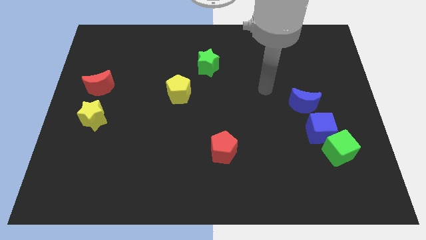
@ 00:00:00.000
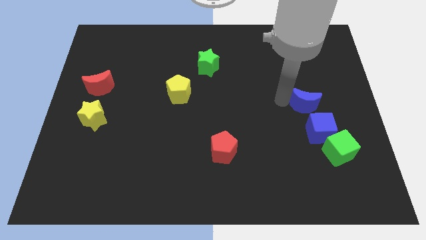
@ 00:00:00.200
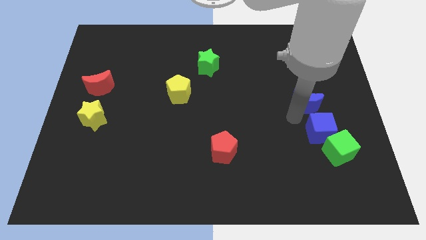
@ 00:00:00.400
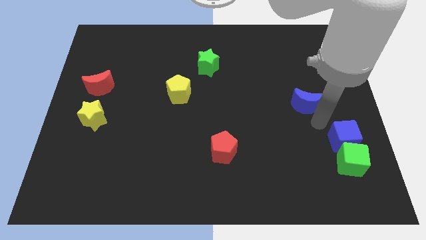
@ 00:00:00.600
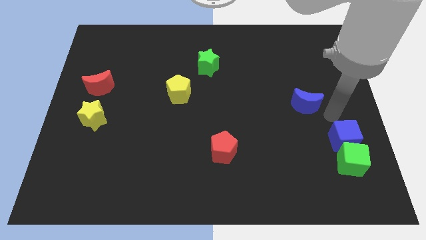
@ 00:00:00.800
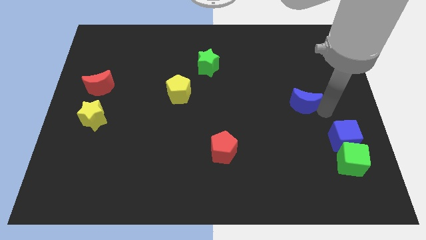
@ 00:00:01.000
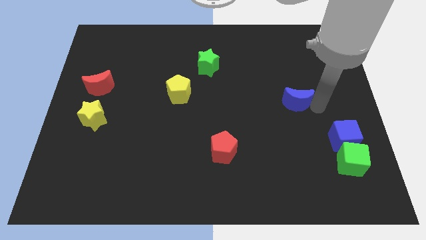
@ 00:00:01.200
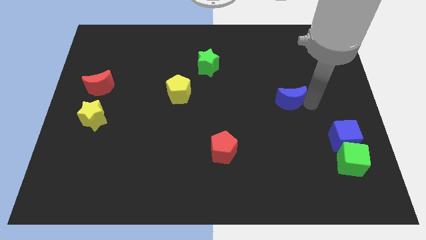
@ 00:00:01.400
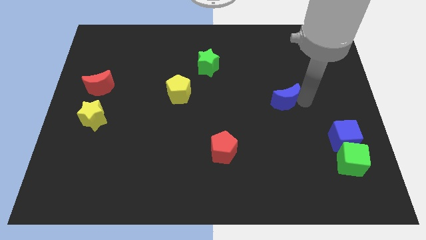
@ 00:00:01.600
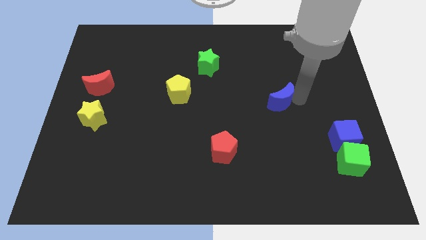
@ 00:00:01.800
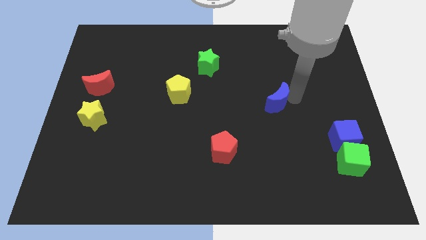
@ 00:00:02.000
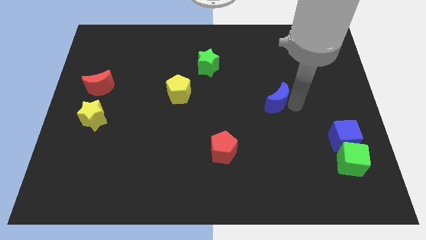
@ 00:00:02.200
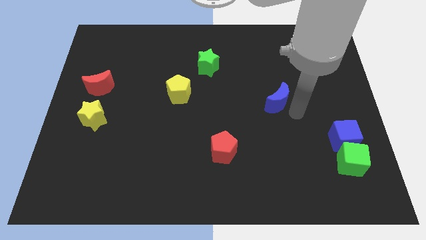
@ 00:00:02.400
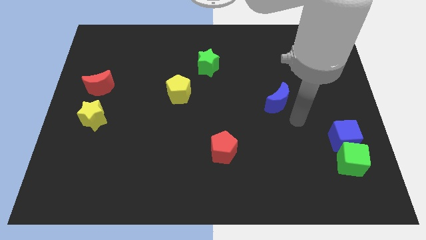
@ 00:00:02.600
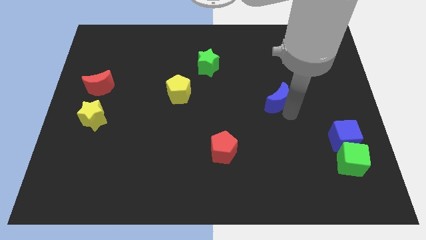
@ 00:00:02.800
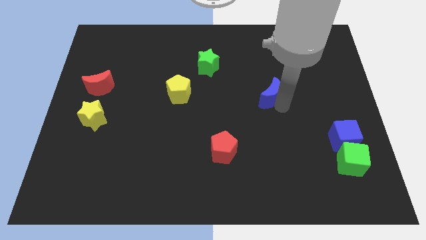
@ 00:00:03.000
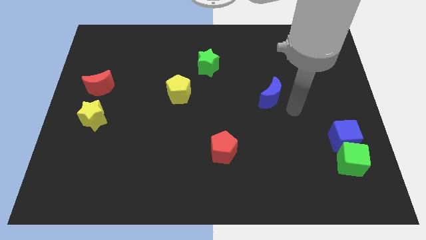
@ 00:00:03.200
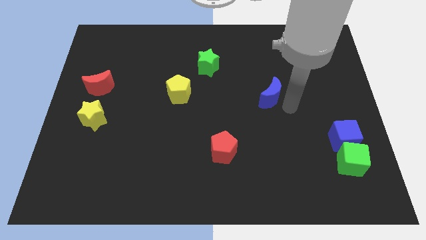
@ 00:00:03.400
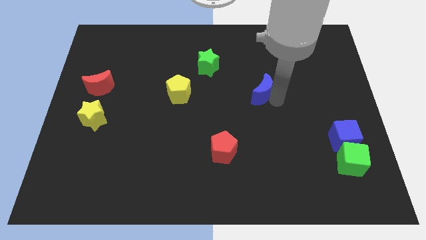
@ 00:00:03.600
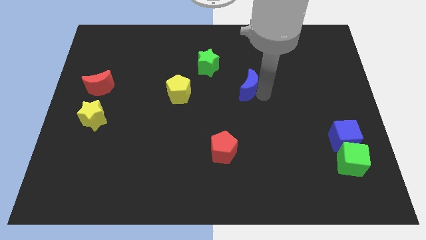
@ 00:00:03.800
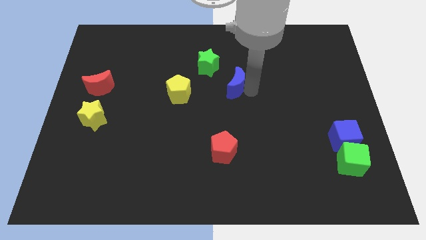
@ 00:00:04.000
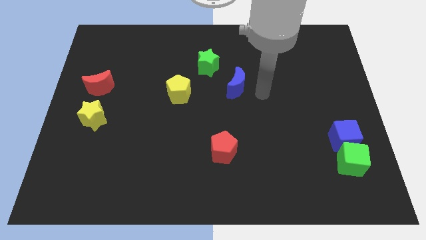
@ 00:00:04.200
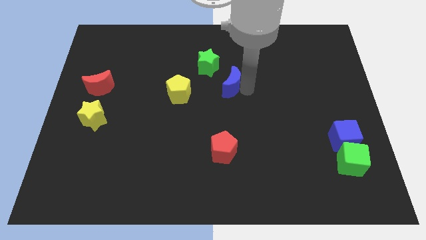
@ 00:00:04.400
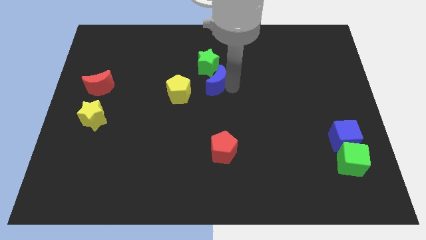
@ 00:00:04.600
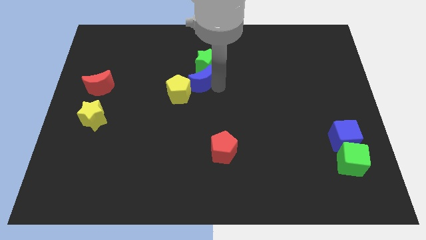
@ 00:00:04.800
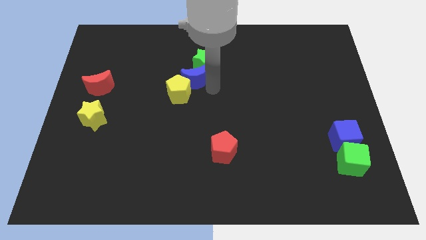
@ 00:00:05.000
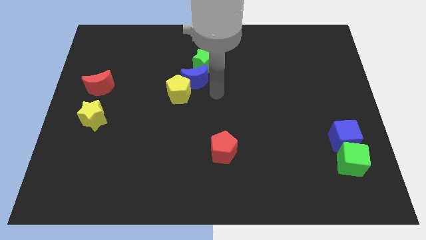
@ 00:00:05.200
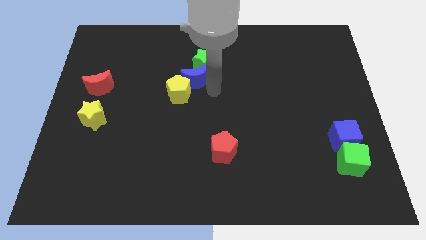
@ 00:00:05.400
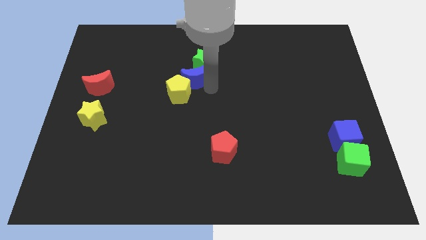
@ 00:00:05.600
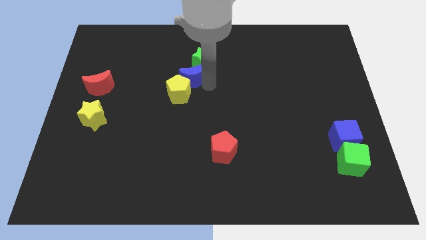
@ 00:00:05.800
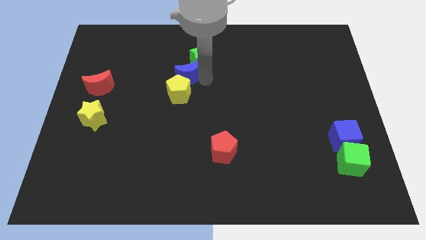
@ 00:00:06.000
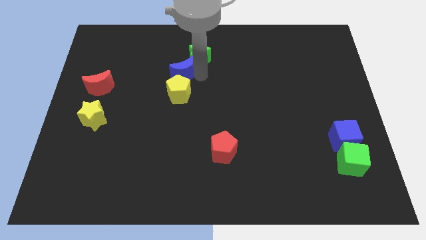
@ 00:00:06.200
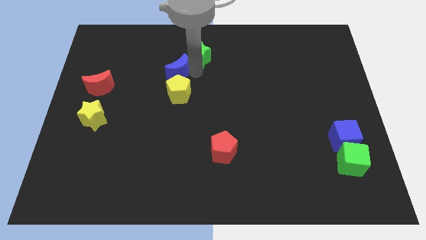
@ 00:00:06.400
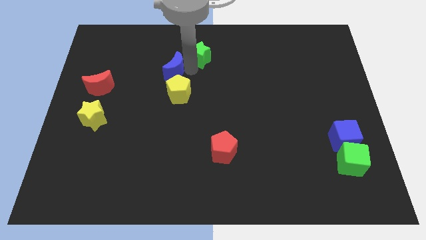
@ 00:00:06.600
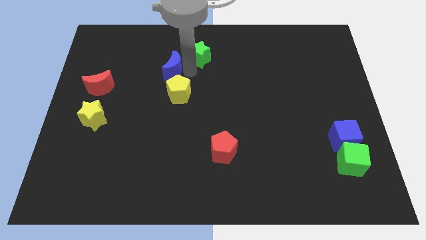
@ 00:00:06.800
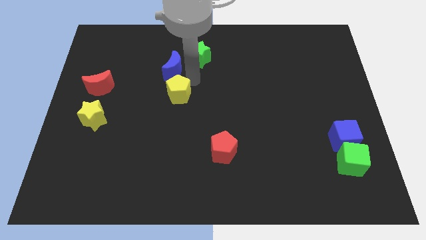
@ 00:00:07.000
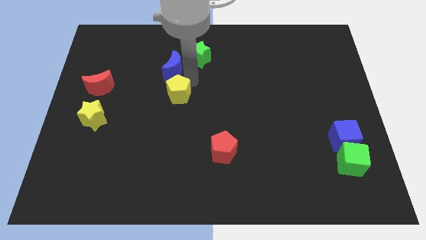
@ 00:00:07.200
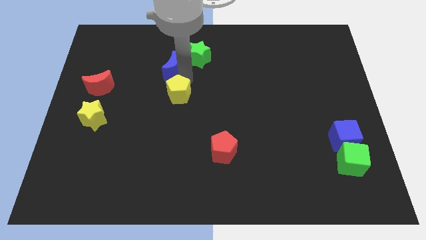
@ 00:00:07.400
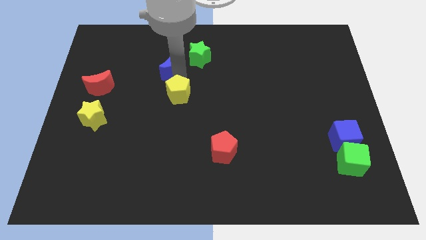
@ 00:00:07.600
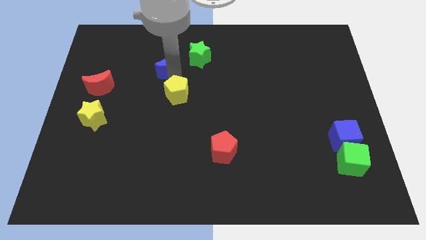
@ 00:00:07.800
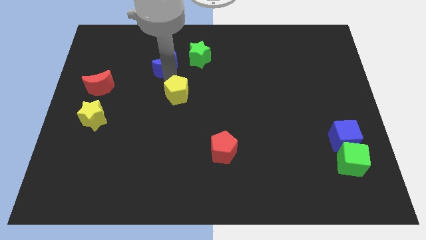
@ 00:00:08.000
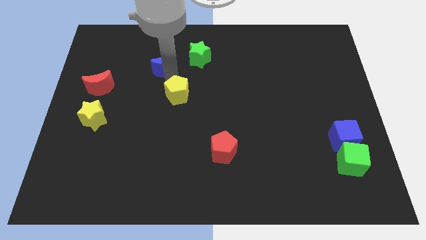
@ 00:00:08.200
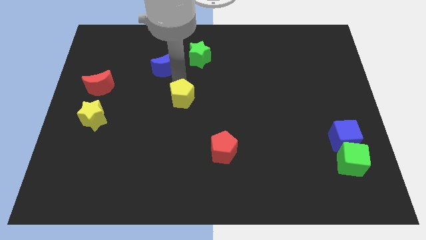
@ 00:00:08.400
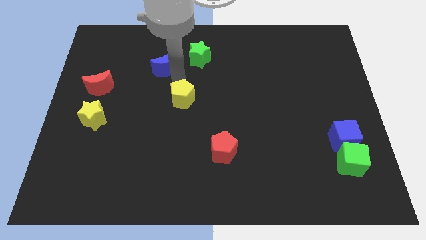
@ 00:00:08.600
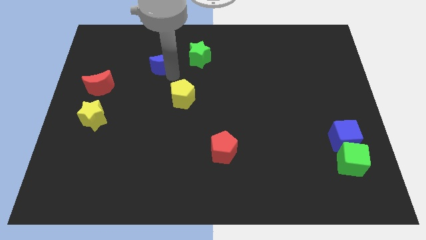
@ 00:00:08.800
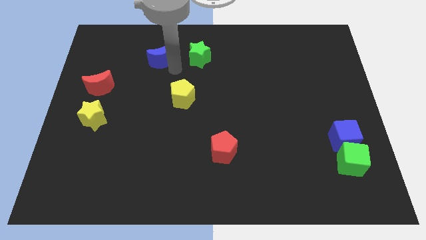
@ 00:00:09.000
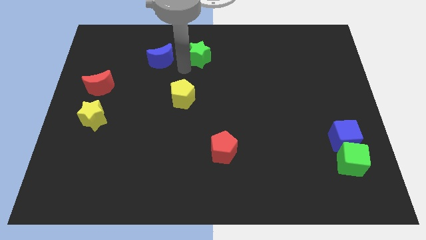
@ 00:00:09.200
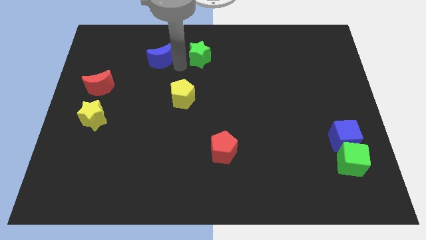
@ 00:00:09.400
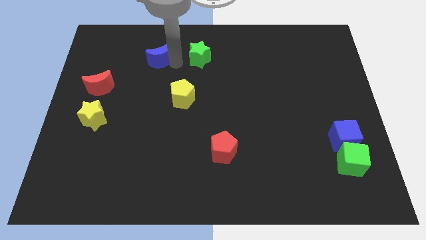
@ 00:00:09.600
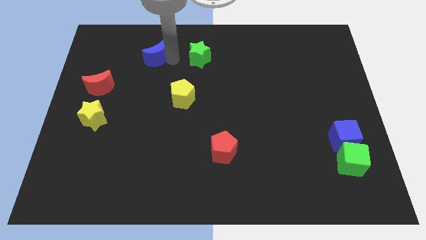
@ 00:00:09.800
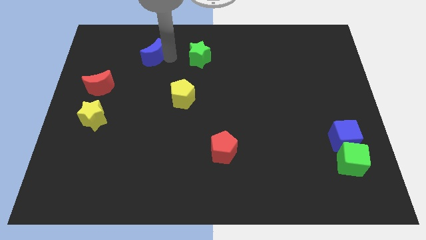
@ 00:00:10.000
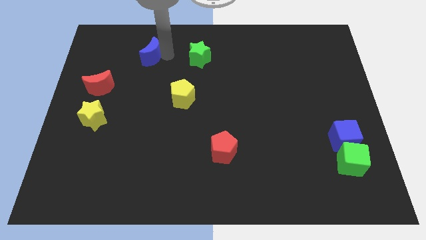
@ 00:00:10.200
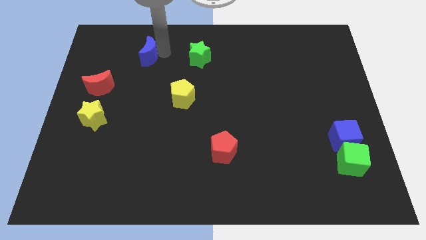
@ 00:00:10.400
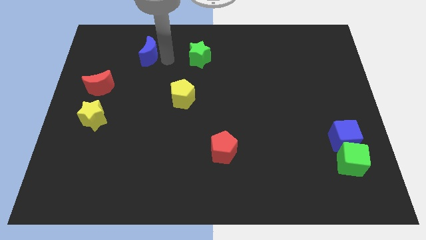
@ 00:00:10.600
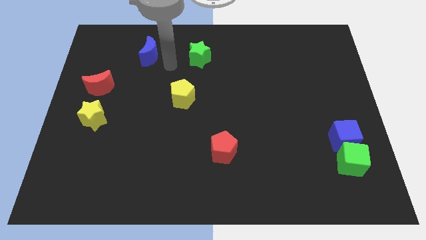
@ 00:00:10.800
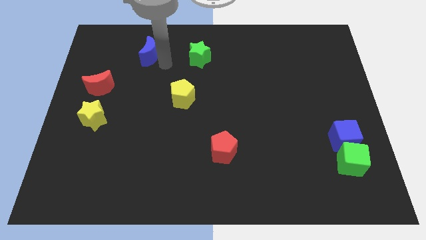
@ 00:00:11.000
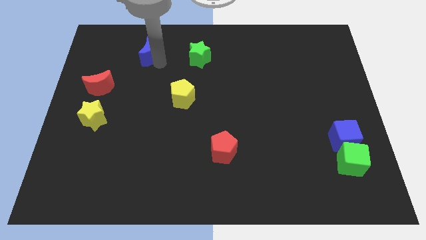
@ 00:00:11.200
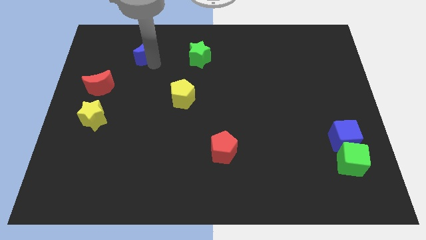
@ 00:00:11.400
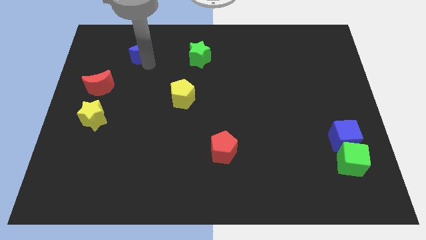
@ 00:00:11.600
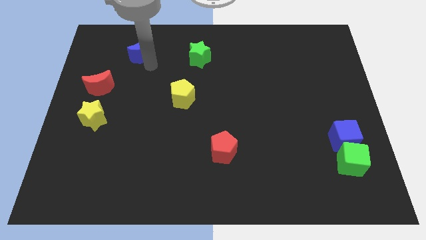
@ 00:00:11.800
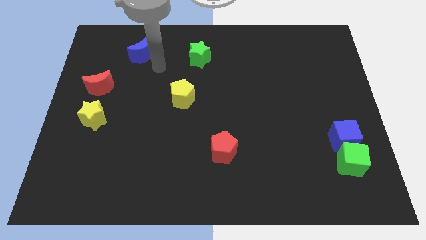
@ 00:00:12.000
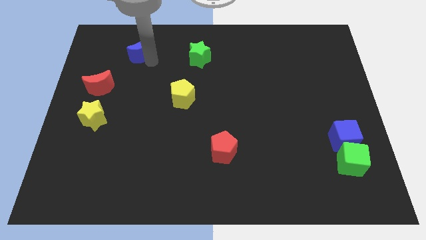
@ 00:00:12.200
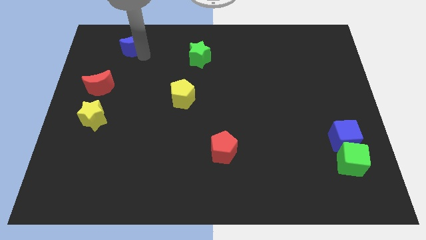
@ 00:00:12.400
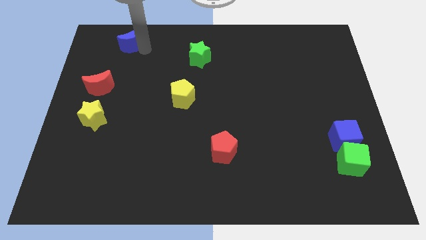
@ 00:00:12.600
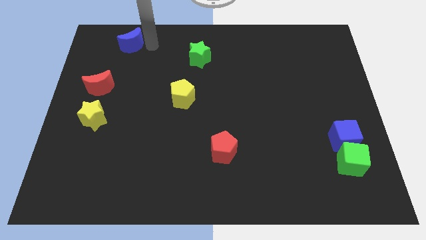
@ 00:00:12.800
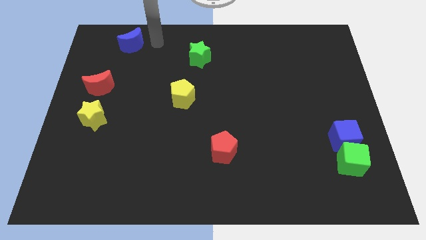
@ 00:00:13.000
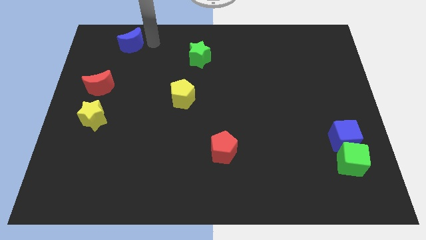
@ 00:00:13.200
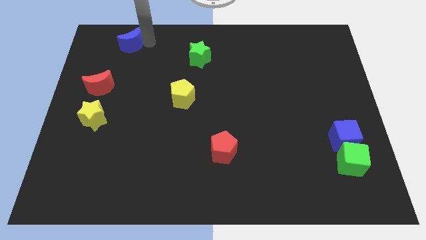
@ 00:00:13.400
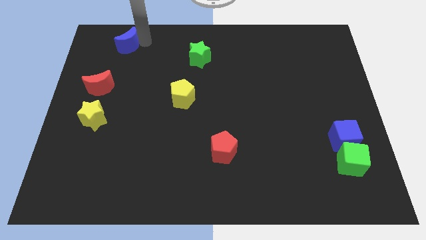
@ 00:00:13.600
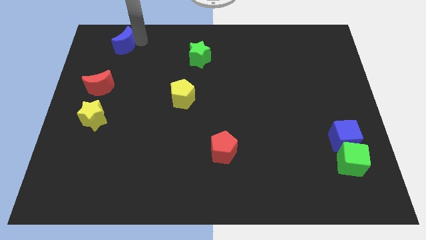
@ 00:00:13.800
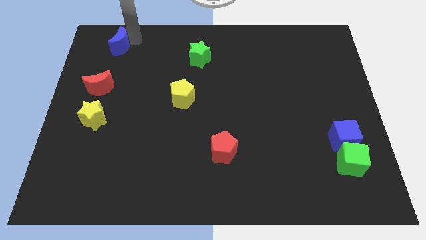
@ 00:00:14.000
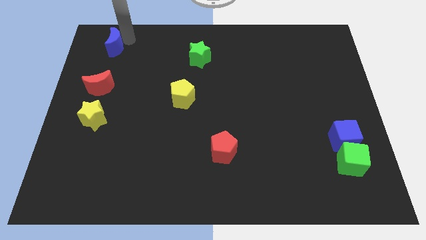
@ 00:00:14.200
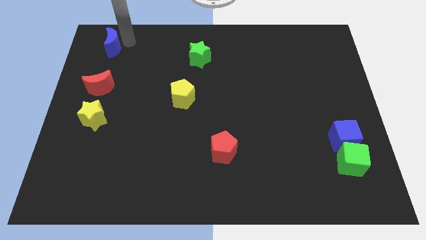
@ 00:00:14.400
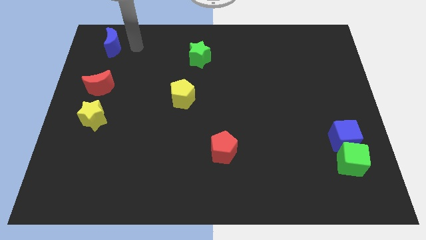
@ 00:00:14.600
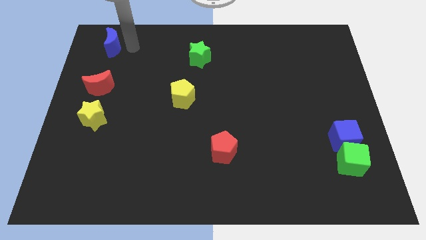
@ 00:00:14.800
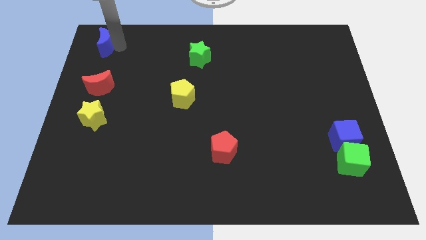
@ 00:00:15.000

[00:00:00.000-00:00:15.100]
move the blue moon to the top left
